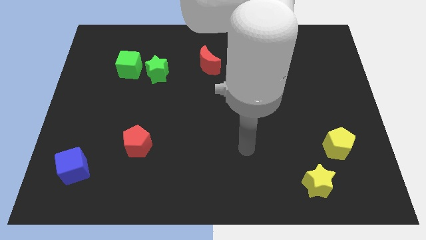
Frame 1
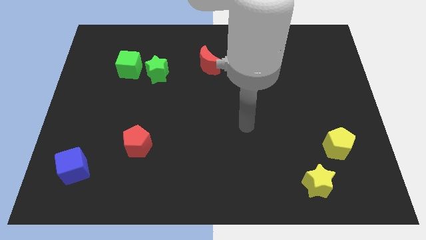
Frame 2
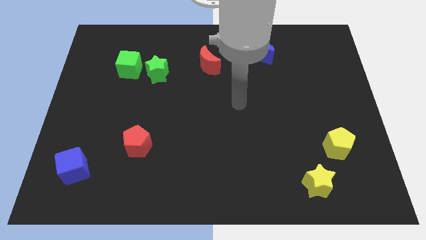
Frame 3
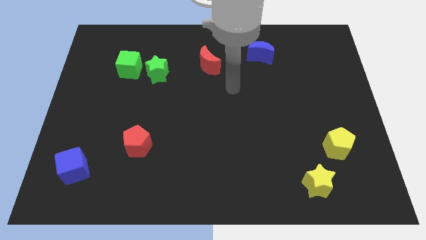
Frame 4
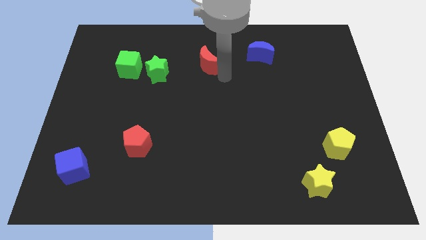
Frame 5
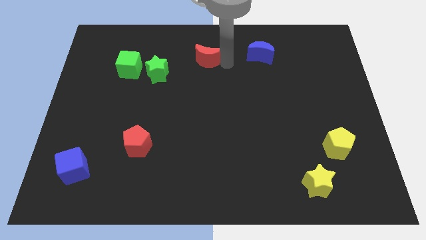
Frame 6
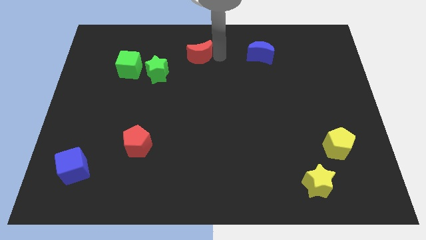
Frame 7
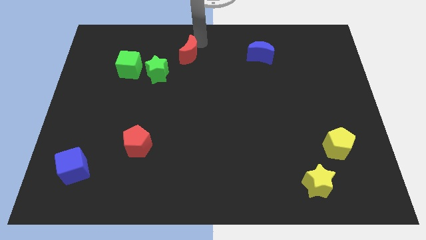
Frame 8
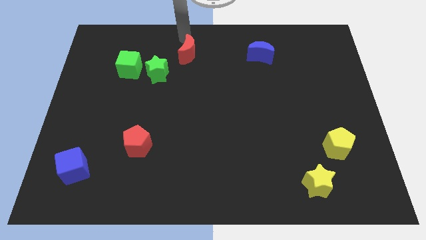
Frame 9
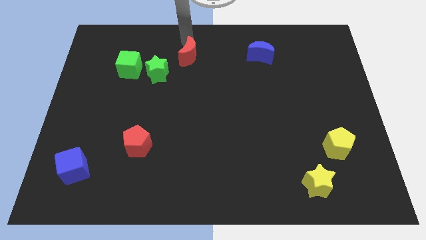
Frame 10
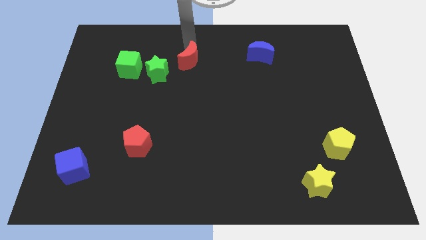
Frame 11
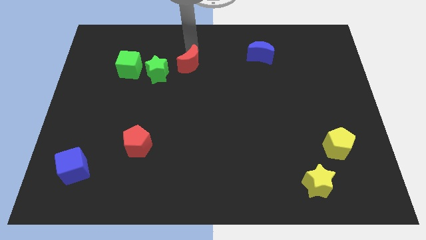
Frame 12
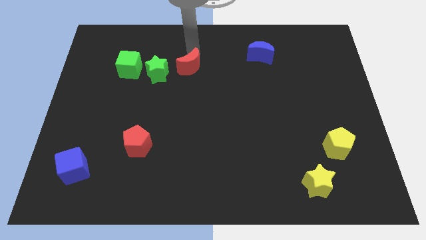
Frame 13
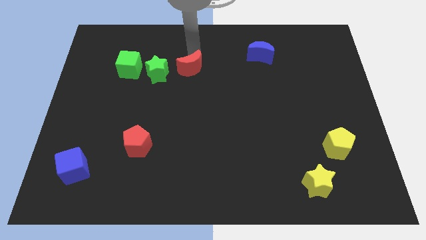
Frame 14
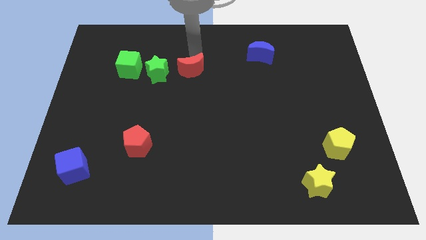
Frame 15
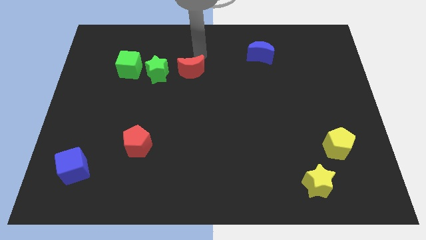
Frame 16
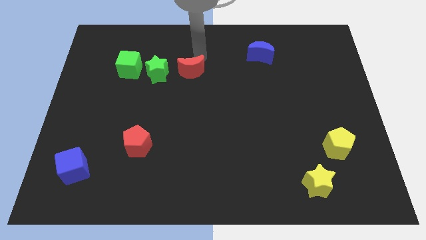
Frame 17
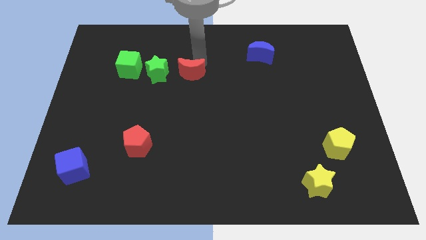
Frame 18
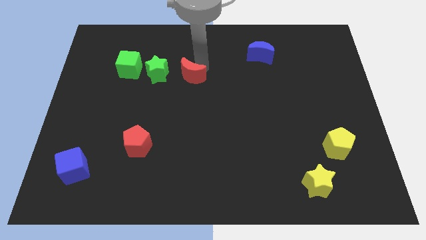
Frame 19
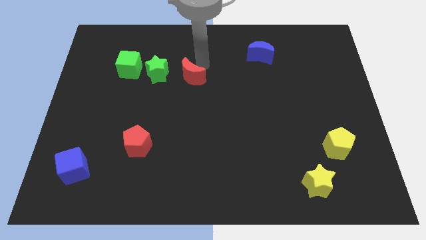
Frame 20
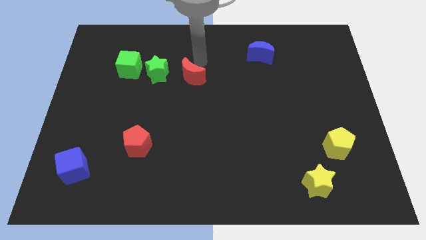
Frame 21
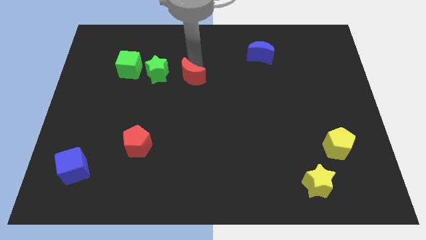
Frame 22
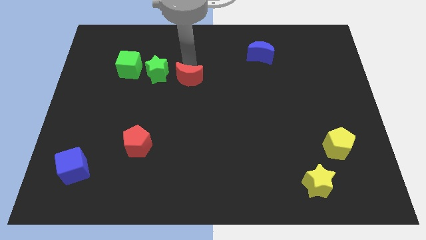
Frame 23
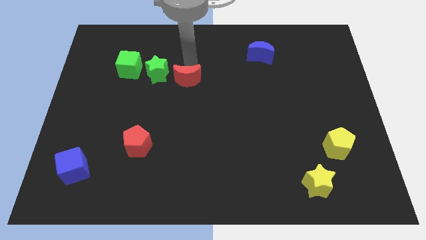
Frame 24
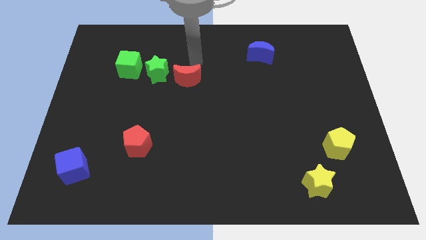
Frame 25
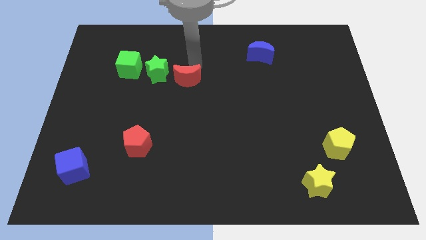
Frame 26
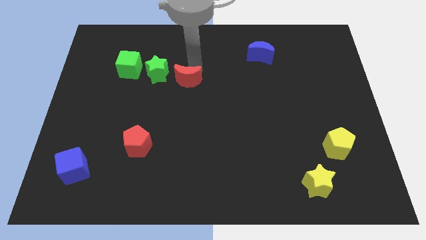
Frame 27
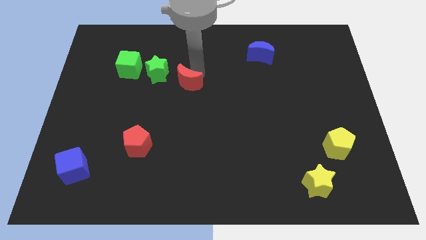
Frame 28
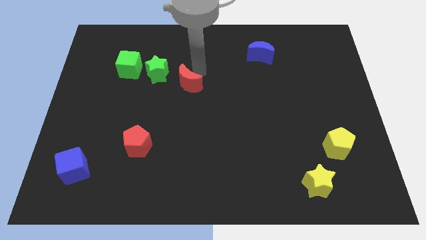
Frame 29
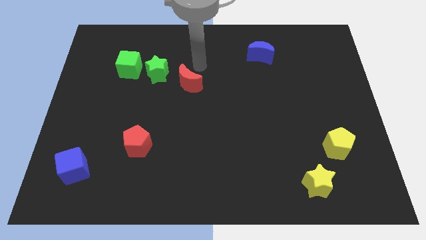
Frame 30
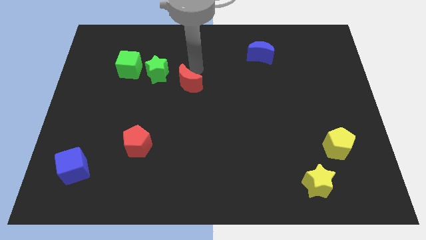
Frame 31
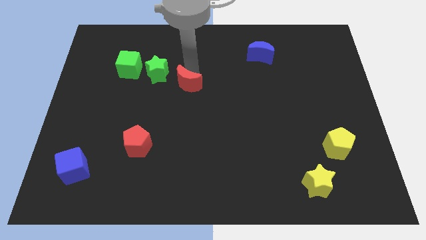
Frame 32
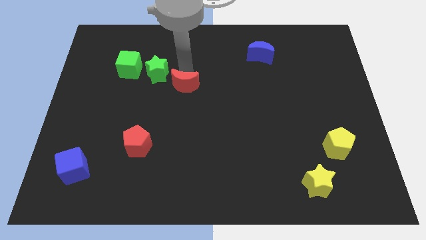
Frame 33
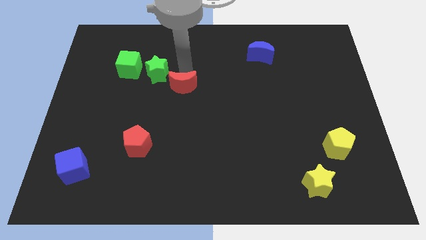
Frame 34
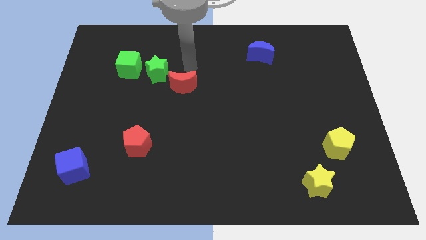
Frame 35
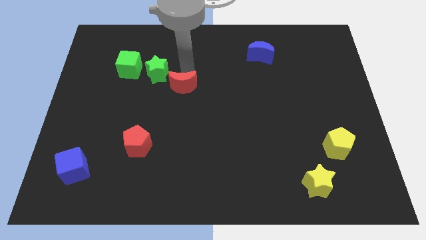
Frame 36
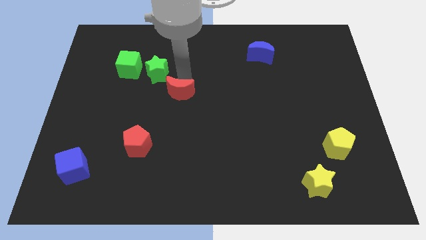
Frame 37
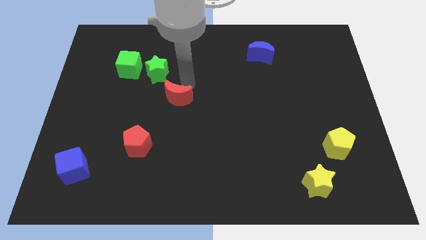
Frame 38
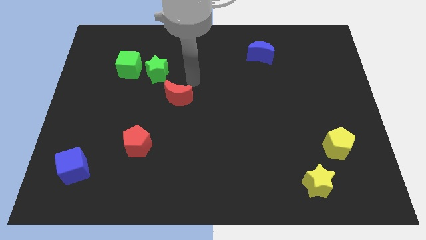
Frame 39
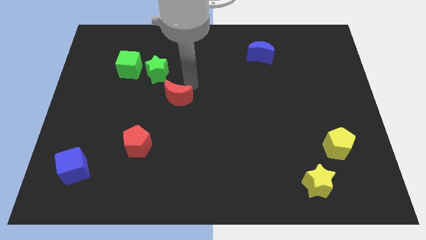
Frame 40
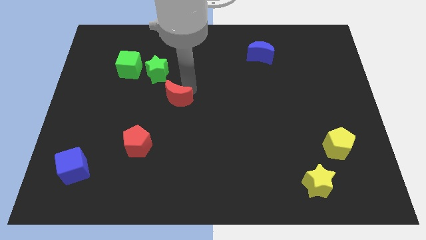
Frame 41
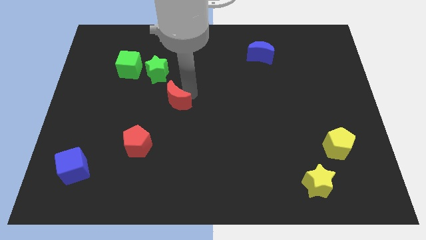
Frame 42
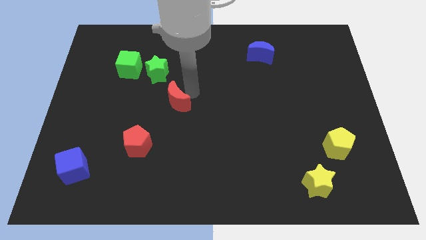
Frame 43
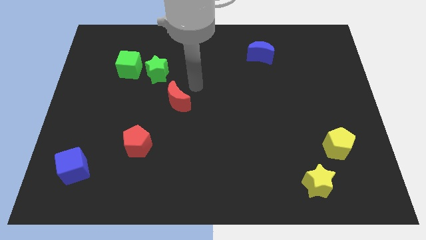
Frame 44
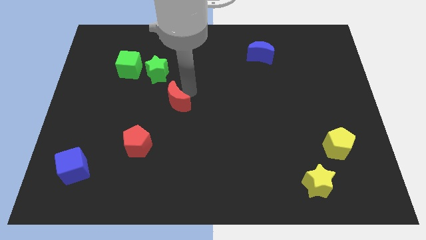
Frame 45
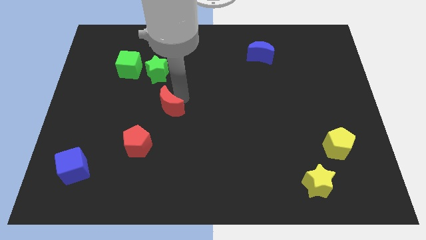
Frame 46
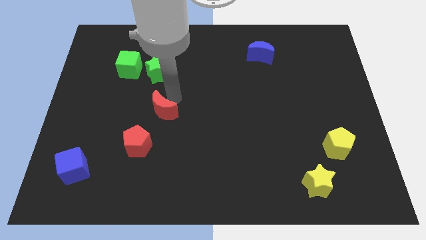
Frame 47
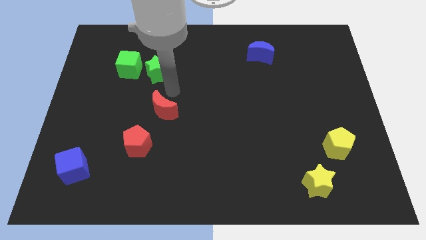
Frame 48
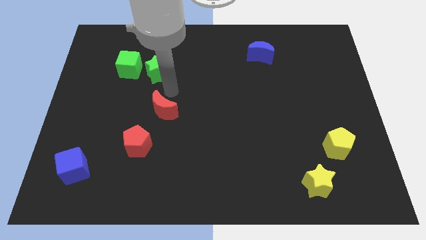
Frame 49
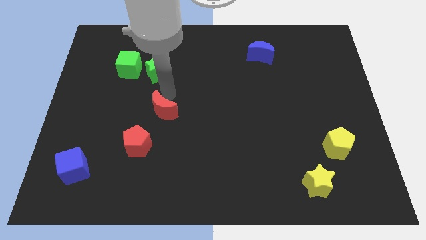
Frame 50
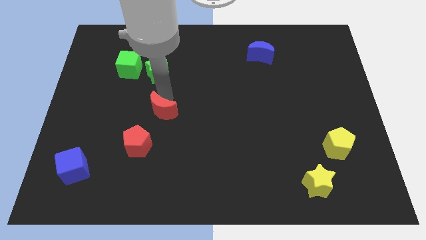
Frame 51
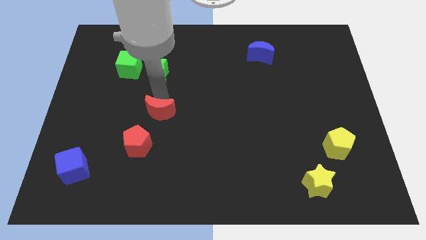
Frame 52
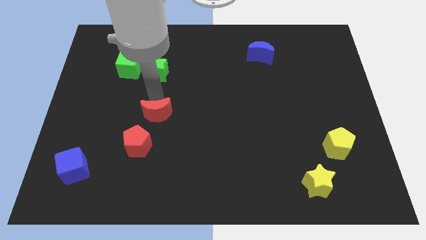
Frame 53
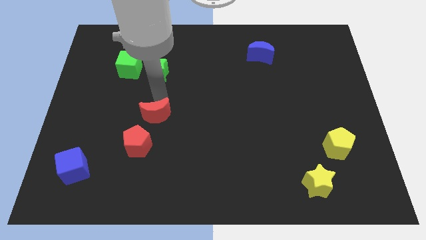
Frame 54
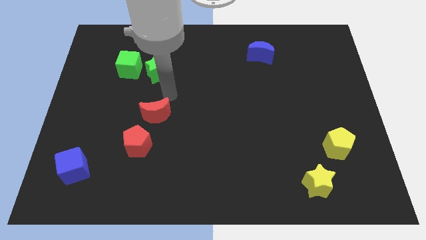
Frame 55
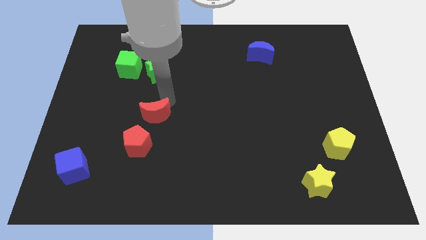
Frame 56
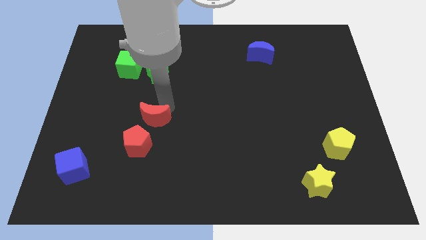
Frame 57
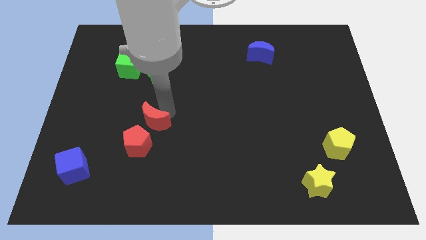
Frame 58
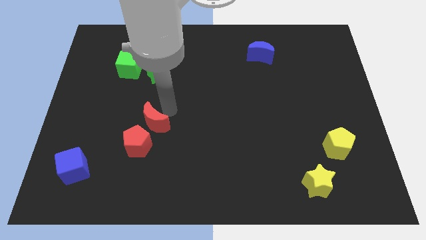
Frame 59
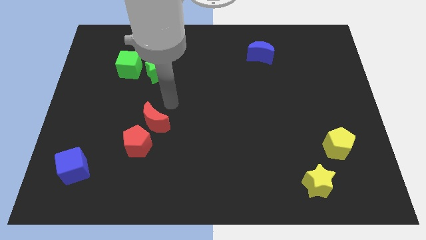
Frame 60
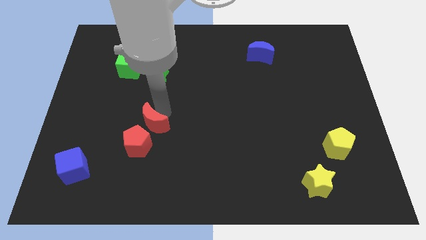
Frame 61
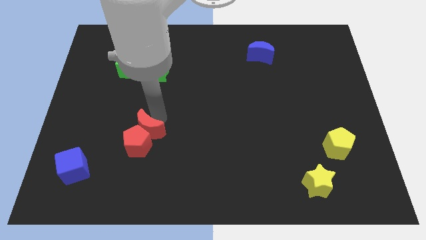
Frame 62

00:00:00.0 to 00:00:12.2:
put the red moon towards the red pentagon

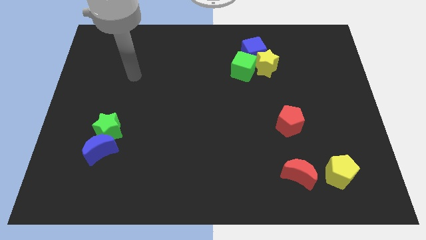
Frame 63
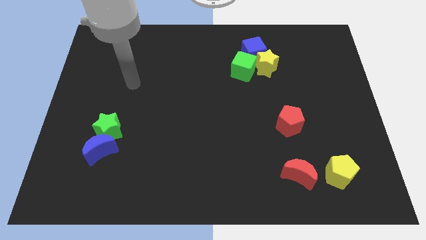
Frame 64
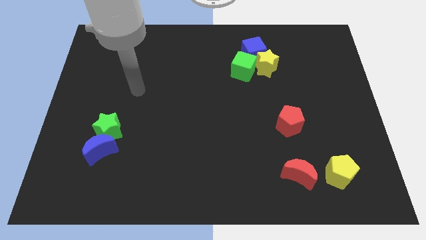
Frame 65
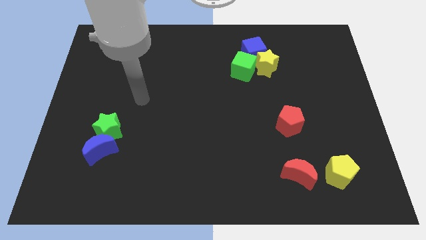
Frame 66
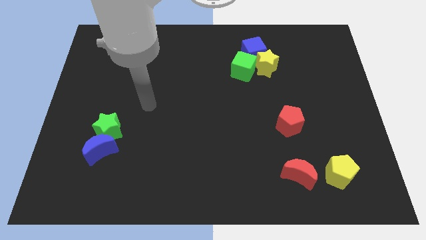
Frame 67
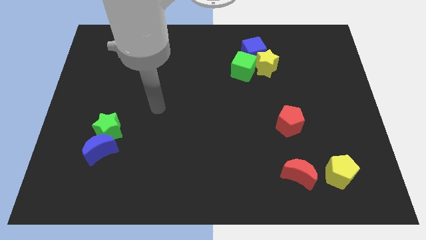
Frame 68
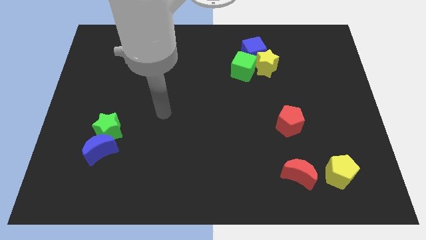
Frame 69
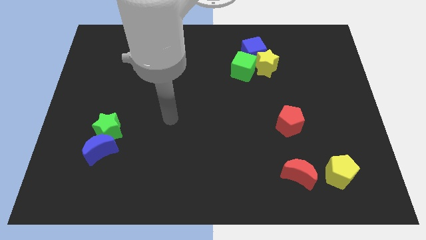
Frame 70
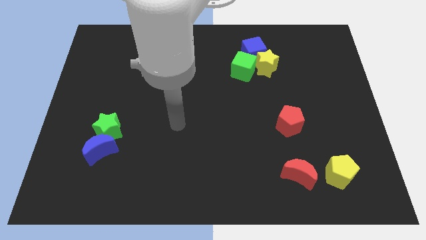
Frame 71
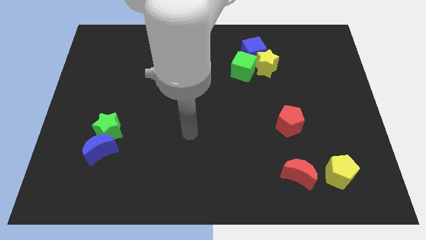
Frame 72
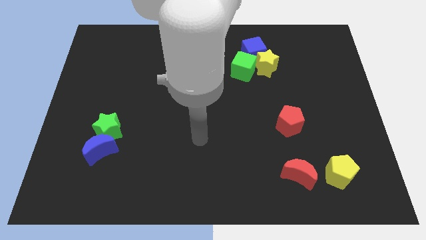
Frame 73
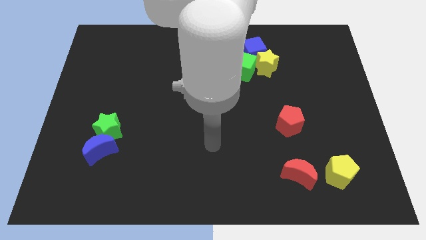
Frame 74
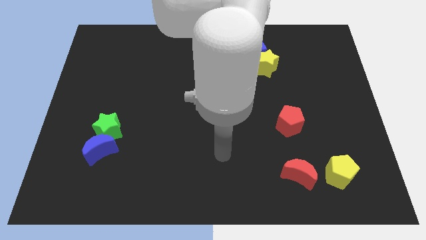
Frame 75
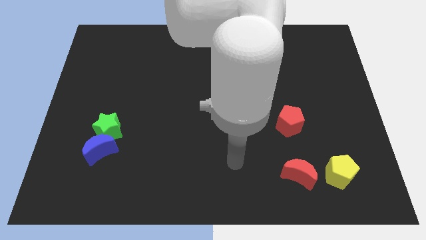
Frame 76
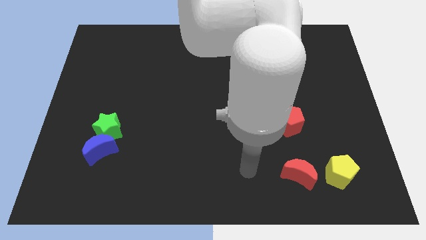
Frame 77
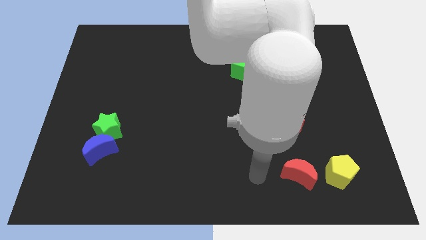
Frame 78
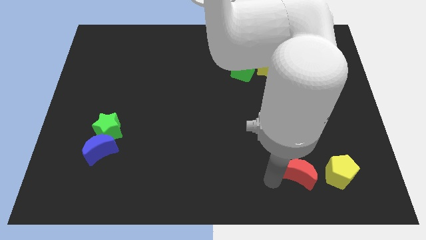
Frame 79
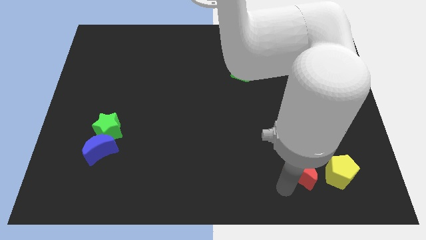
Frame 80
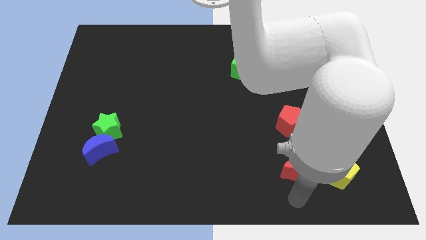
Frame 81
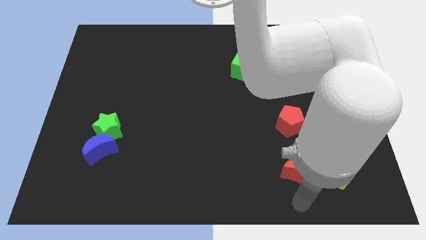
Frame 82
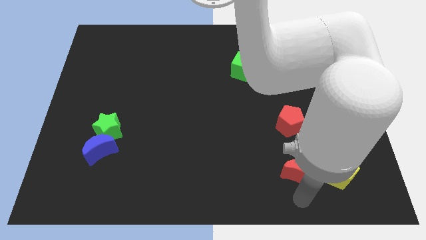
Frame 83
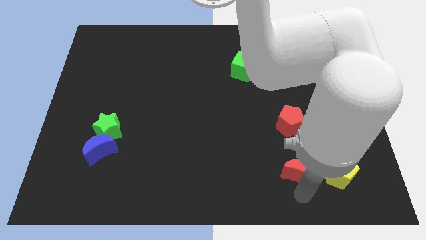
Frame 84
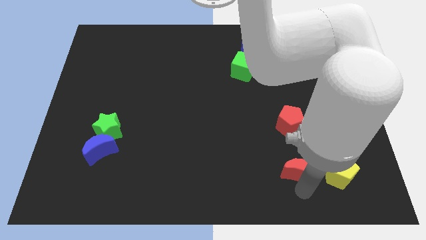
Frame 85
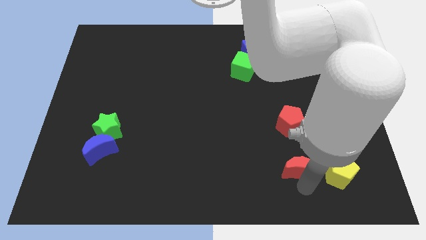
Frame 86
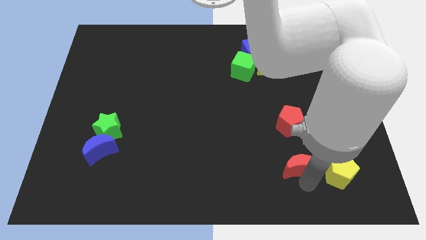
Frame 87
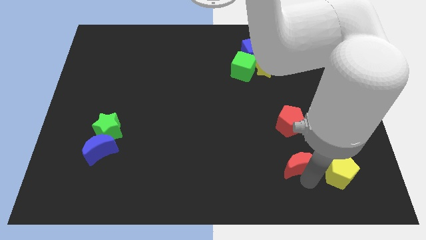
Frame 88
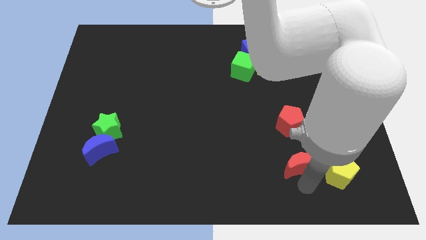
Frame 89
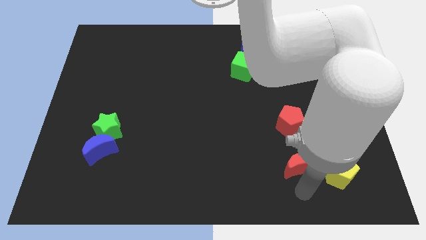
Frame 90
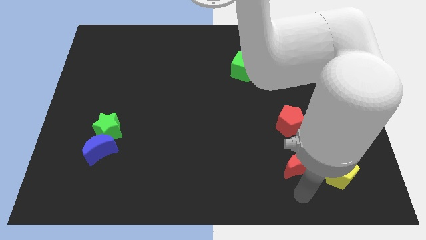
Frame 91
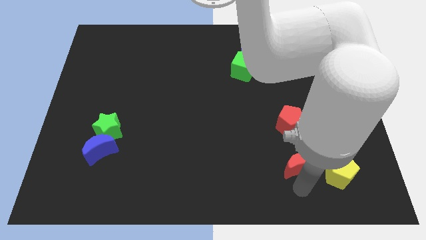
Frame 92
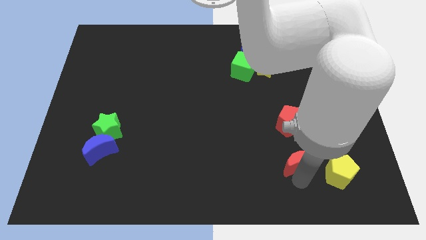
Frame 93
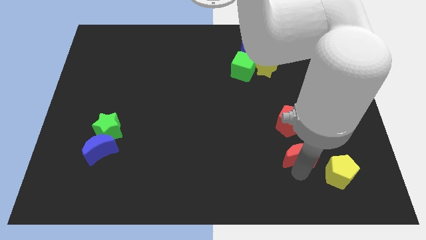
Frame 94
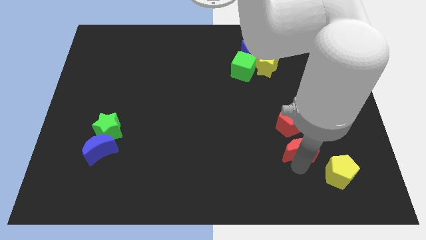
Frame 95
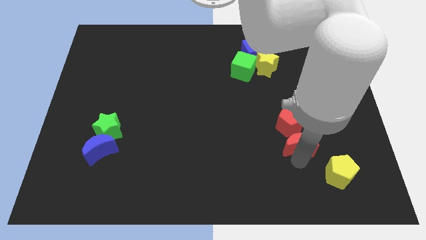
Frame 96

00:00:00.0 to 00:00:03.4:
put the red moon to the red pentagon
